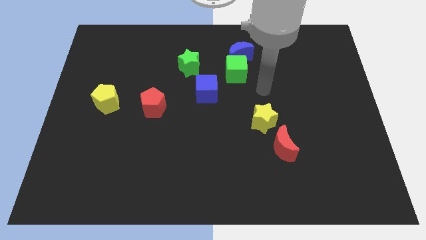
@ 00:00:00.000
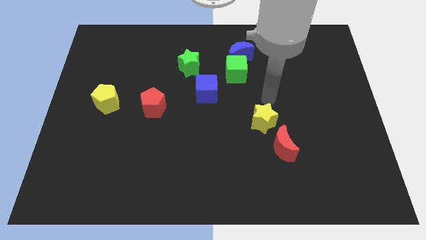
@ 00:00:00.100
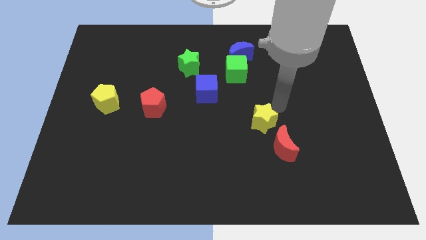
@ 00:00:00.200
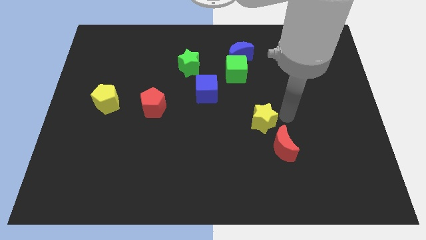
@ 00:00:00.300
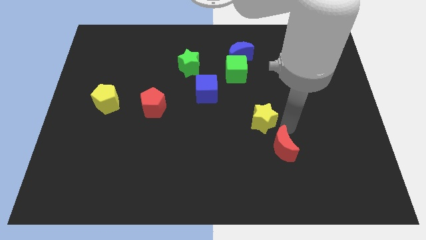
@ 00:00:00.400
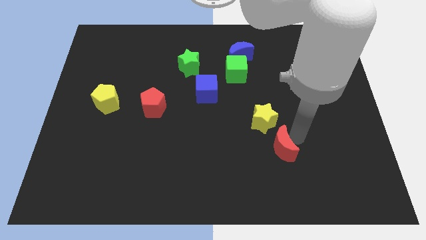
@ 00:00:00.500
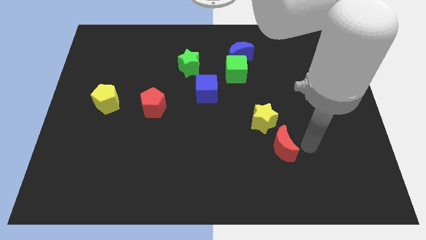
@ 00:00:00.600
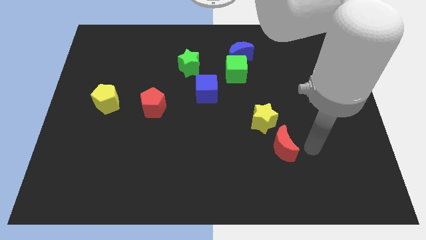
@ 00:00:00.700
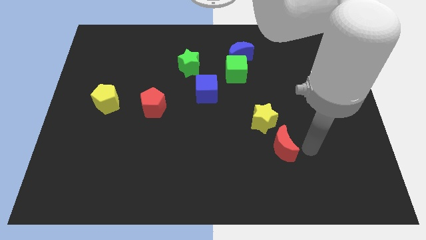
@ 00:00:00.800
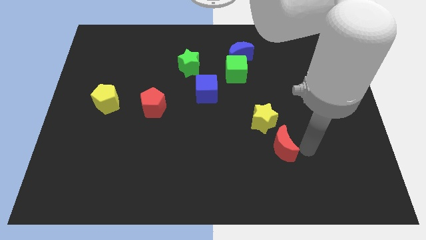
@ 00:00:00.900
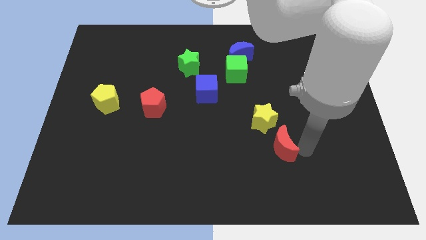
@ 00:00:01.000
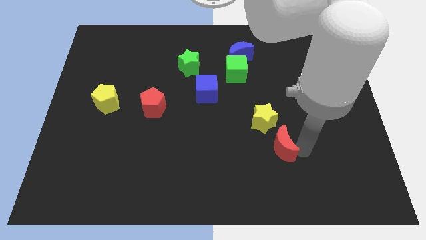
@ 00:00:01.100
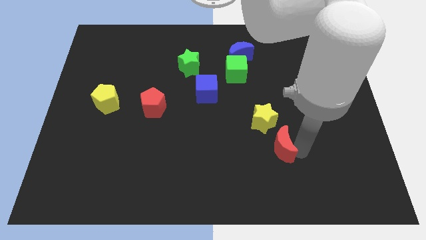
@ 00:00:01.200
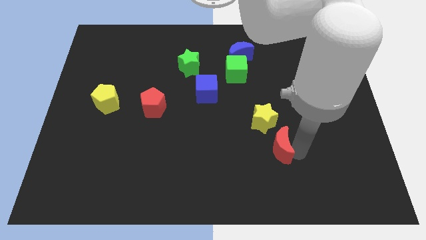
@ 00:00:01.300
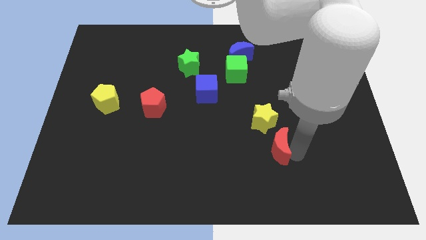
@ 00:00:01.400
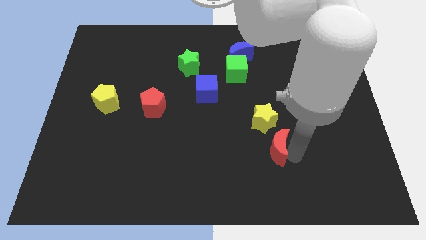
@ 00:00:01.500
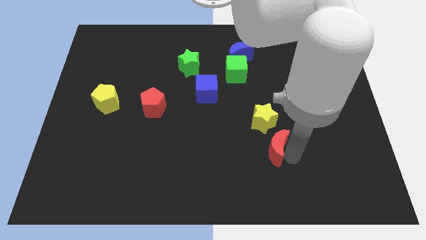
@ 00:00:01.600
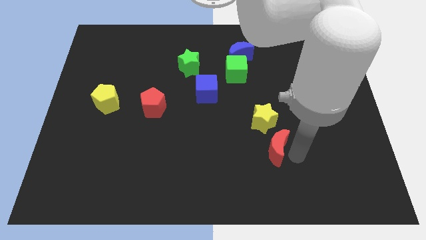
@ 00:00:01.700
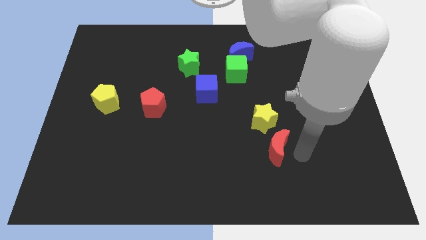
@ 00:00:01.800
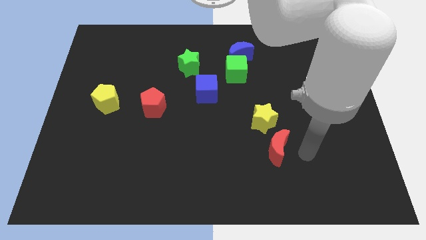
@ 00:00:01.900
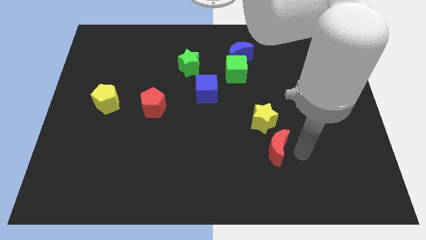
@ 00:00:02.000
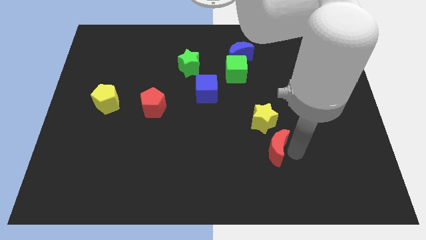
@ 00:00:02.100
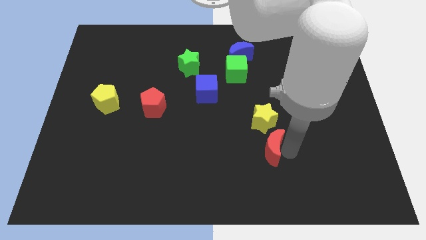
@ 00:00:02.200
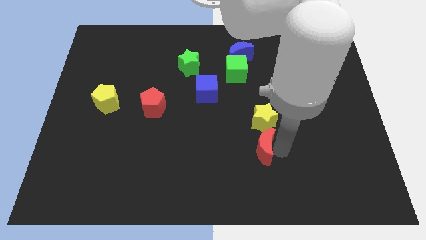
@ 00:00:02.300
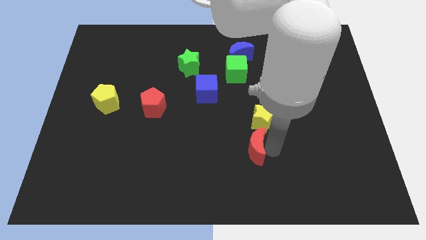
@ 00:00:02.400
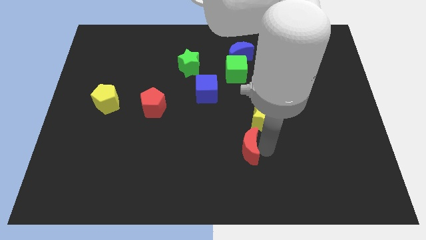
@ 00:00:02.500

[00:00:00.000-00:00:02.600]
slightly push the red moon to the left

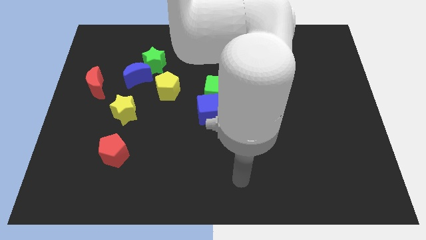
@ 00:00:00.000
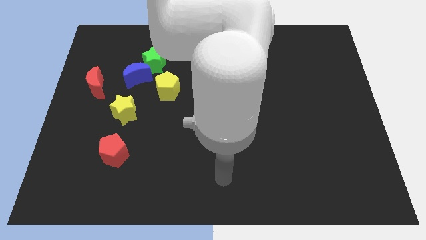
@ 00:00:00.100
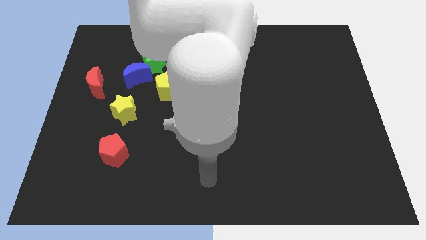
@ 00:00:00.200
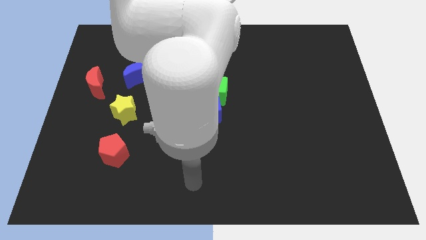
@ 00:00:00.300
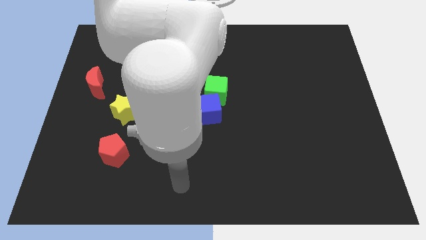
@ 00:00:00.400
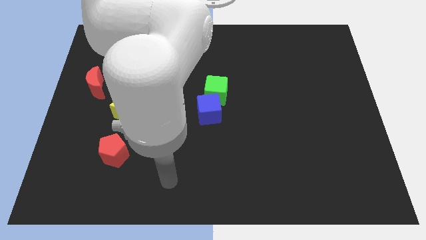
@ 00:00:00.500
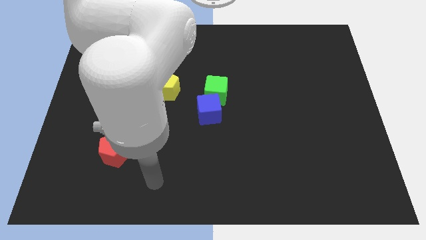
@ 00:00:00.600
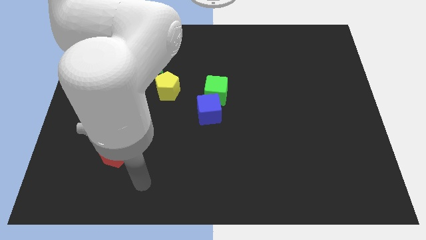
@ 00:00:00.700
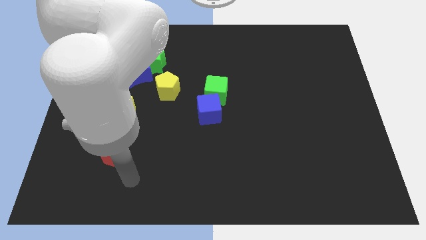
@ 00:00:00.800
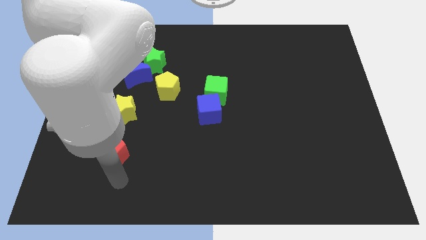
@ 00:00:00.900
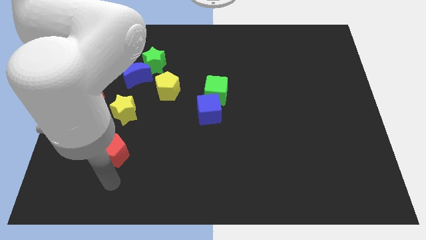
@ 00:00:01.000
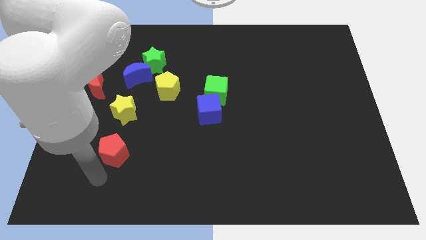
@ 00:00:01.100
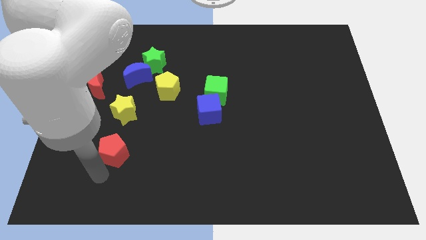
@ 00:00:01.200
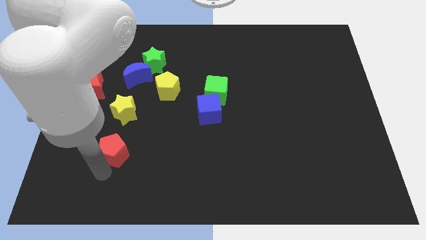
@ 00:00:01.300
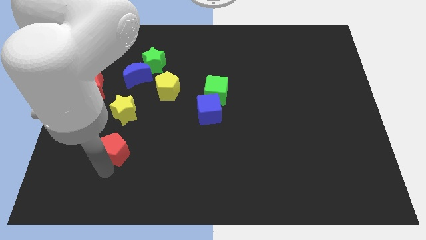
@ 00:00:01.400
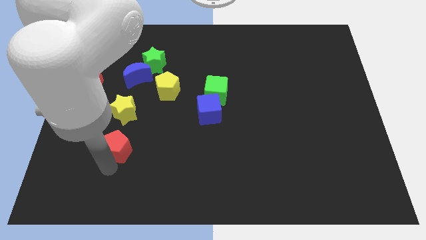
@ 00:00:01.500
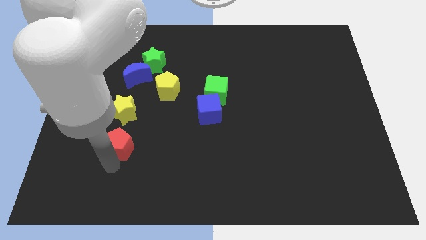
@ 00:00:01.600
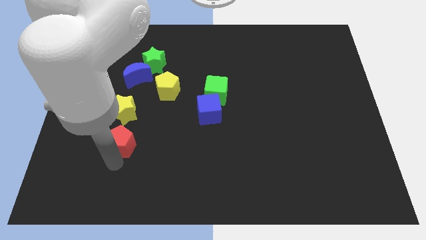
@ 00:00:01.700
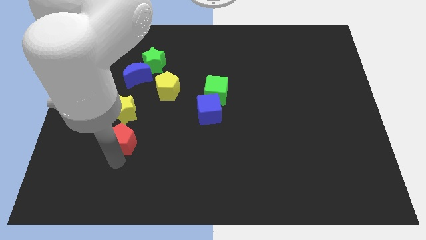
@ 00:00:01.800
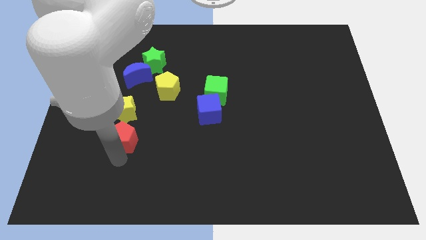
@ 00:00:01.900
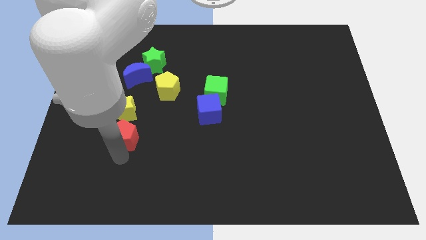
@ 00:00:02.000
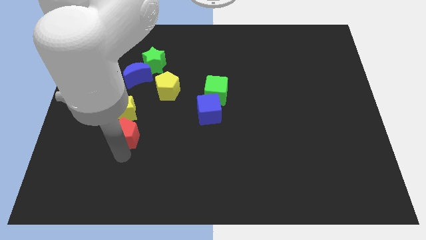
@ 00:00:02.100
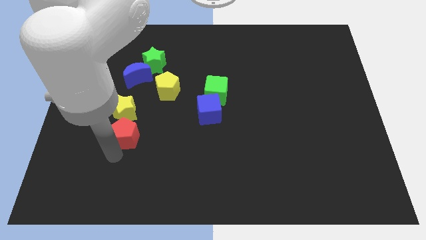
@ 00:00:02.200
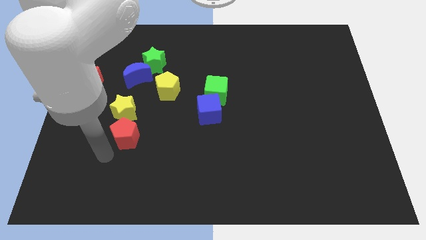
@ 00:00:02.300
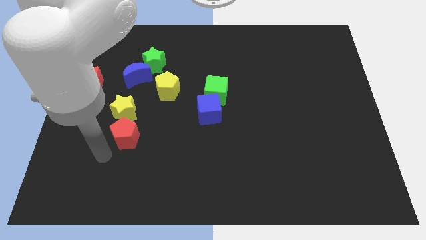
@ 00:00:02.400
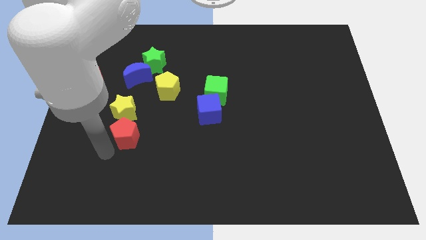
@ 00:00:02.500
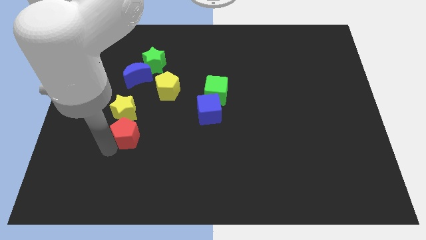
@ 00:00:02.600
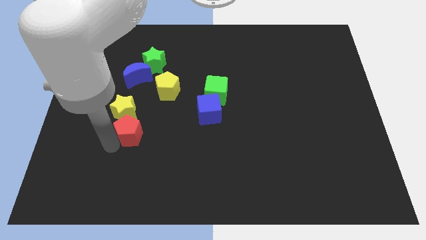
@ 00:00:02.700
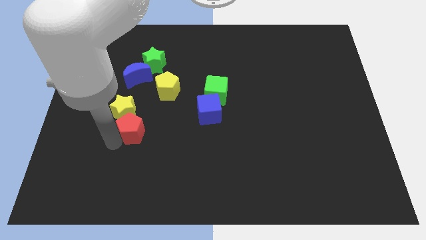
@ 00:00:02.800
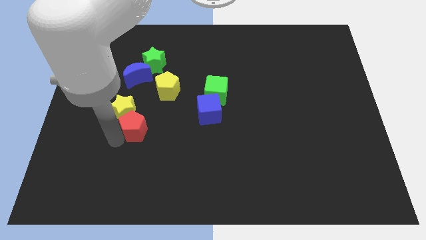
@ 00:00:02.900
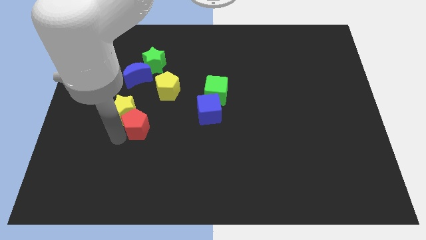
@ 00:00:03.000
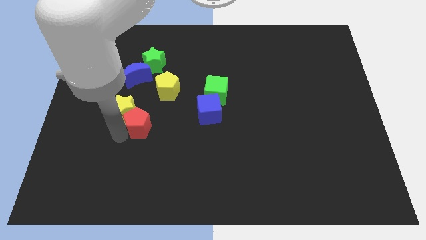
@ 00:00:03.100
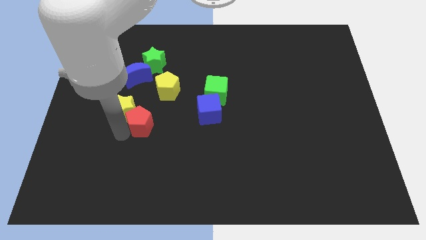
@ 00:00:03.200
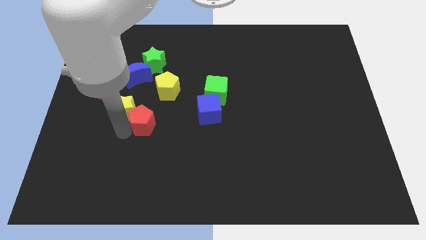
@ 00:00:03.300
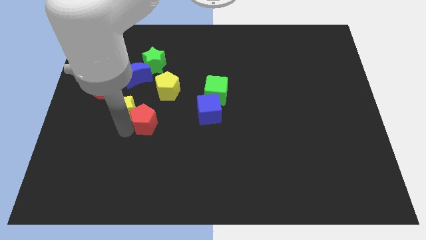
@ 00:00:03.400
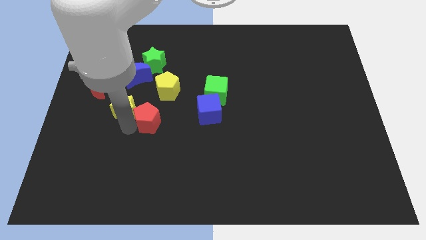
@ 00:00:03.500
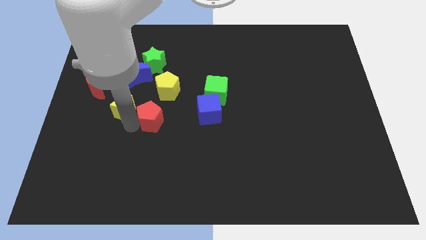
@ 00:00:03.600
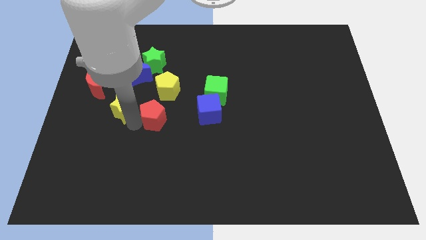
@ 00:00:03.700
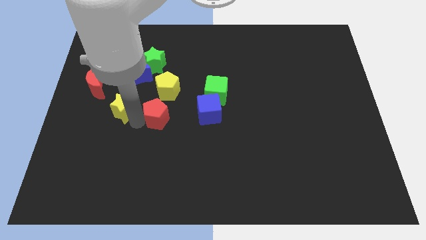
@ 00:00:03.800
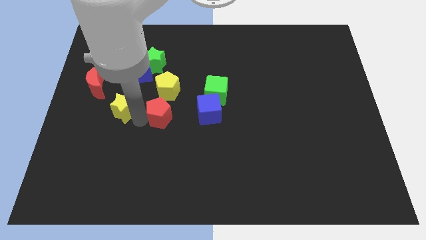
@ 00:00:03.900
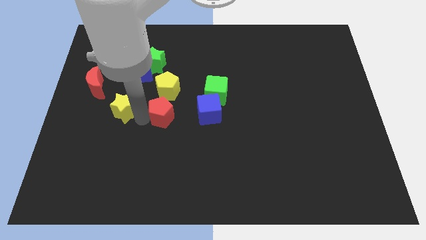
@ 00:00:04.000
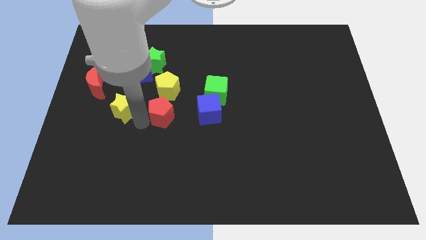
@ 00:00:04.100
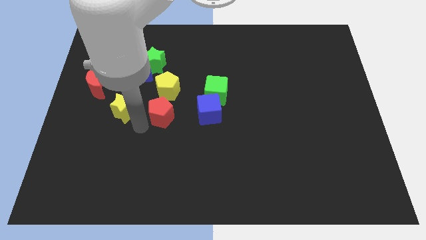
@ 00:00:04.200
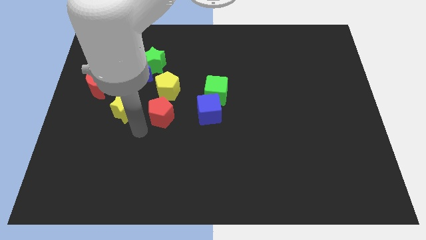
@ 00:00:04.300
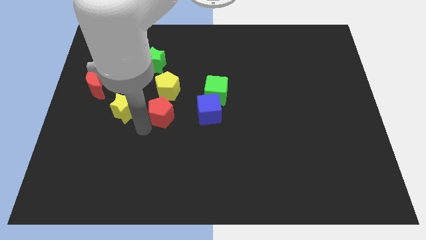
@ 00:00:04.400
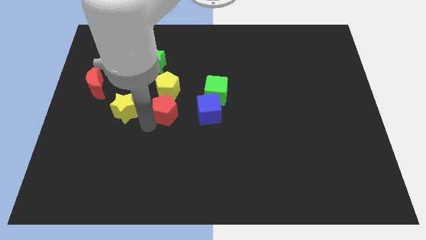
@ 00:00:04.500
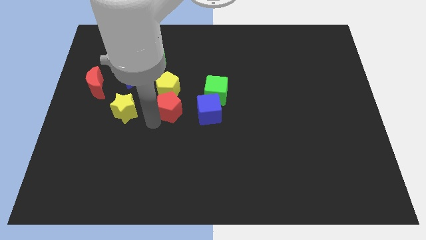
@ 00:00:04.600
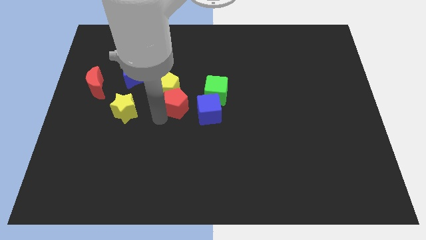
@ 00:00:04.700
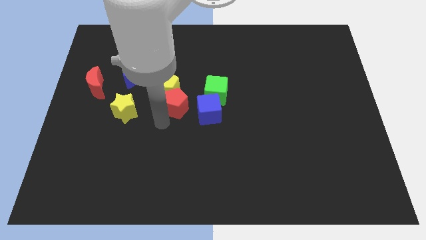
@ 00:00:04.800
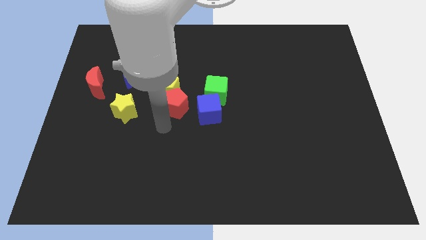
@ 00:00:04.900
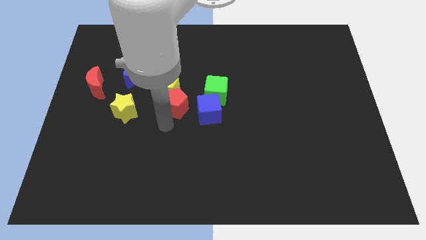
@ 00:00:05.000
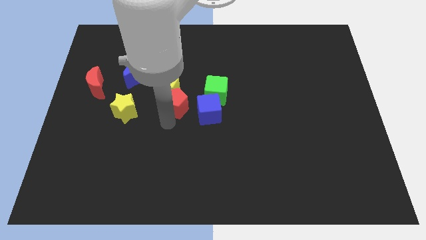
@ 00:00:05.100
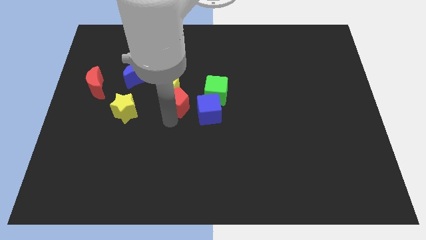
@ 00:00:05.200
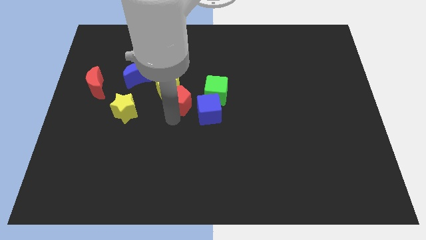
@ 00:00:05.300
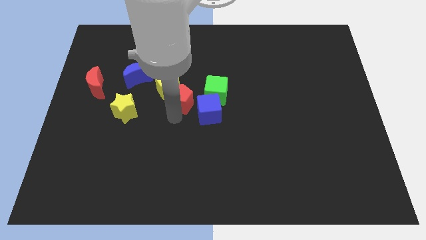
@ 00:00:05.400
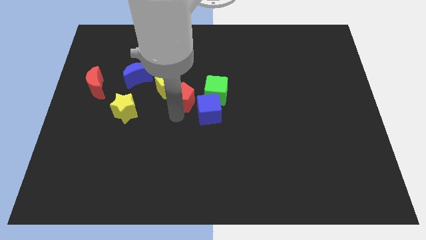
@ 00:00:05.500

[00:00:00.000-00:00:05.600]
push the red pentagon upwards and to the right diagonally
